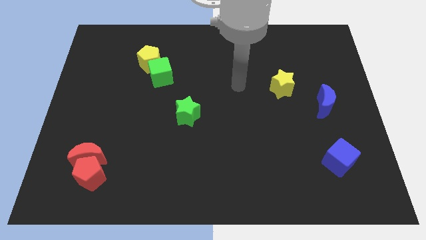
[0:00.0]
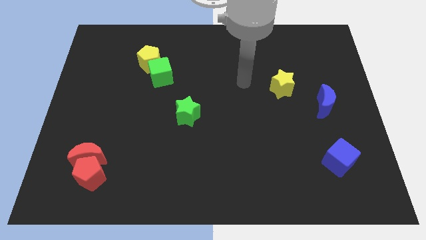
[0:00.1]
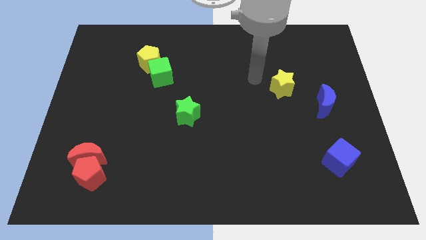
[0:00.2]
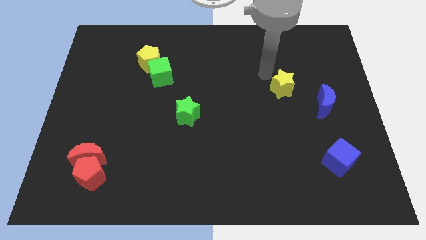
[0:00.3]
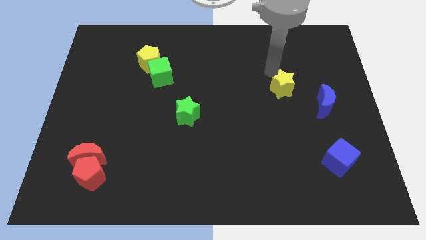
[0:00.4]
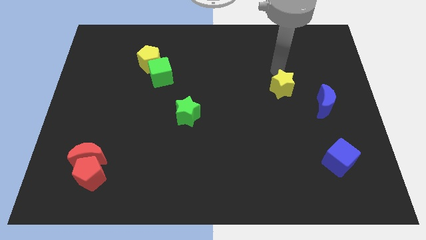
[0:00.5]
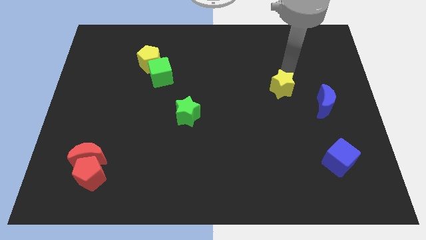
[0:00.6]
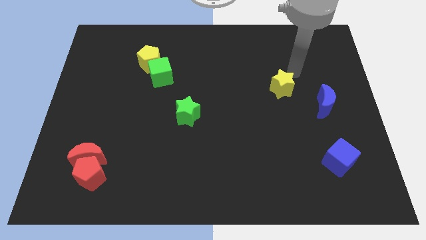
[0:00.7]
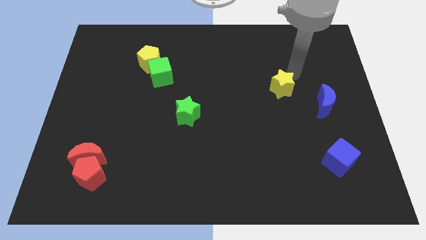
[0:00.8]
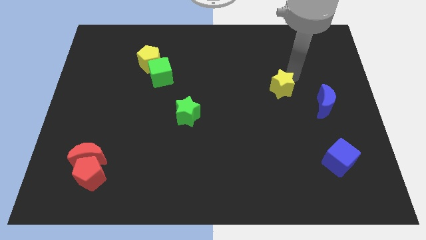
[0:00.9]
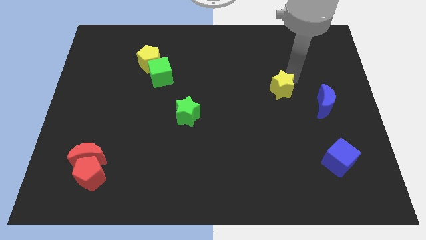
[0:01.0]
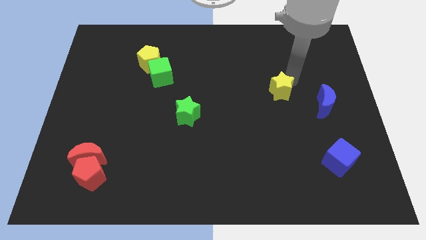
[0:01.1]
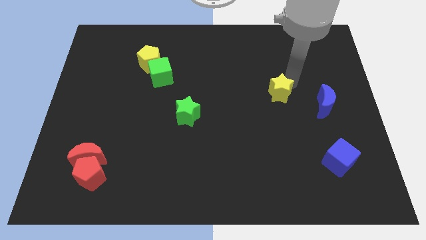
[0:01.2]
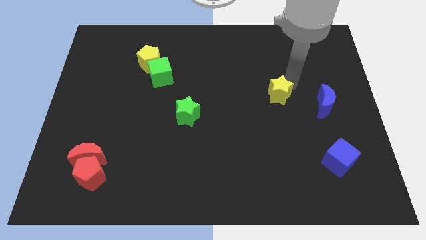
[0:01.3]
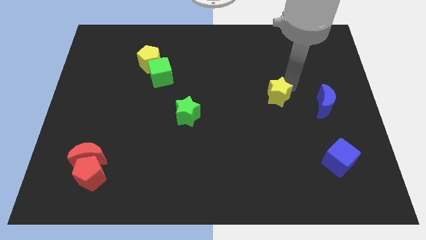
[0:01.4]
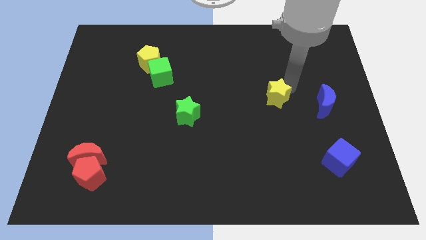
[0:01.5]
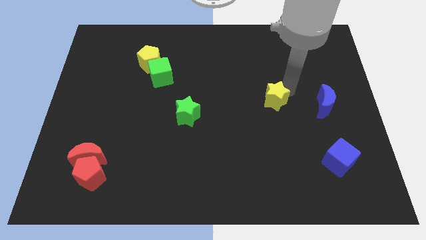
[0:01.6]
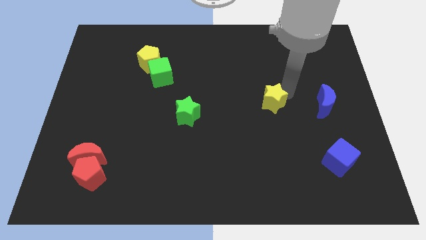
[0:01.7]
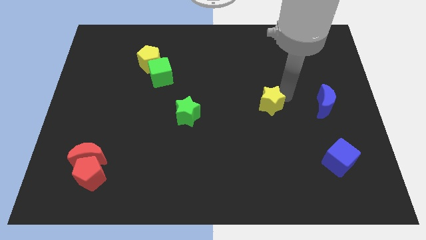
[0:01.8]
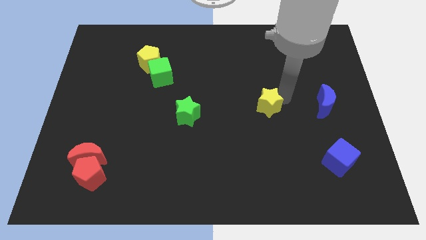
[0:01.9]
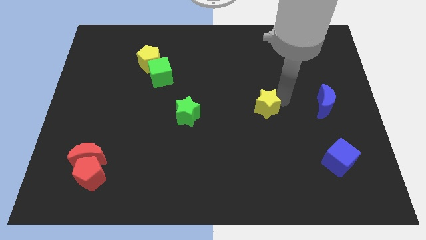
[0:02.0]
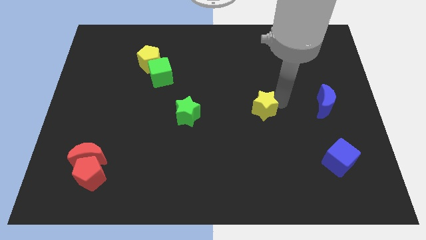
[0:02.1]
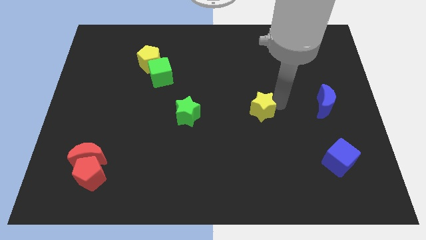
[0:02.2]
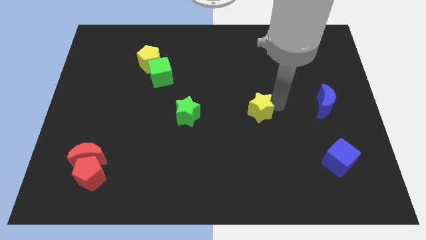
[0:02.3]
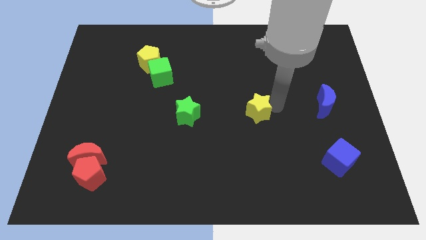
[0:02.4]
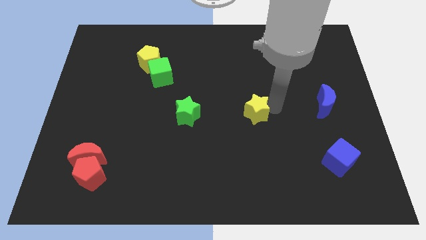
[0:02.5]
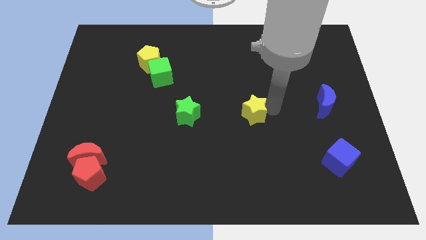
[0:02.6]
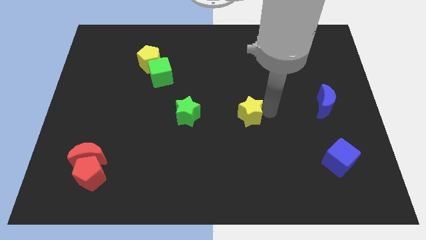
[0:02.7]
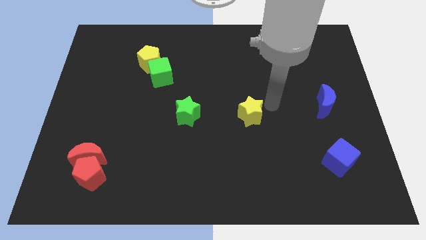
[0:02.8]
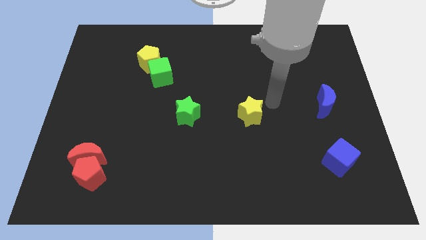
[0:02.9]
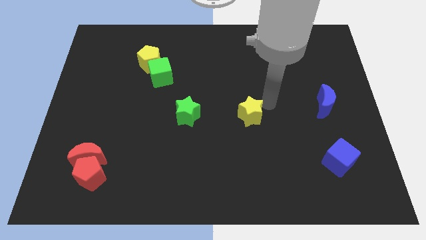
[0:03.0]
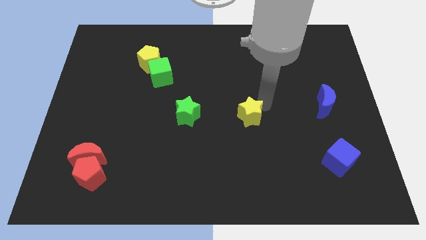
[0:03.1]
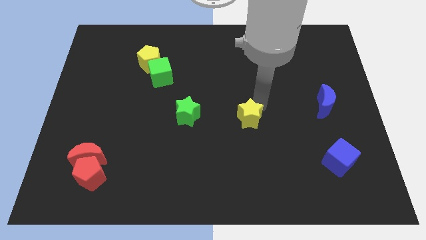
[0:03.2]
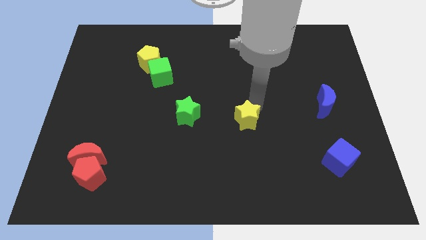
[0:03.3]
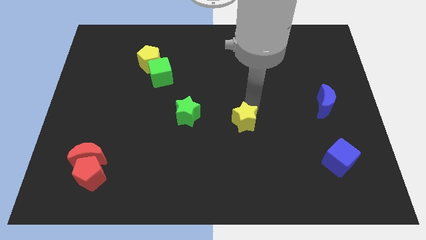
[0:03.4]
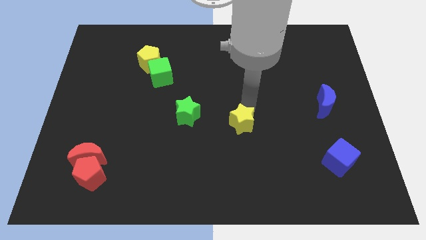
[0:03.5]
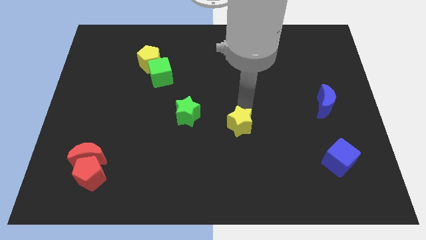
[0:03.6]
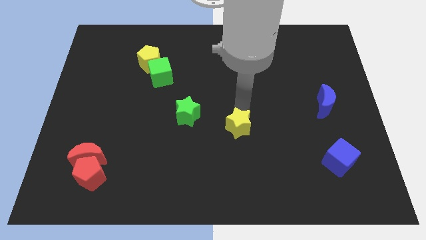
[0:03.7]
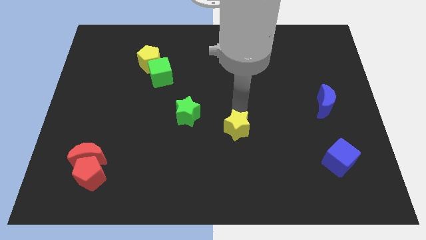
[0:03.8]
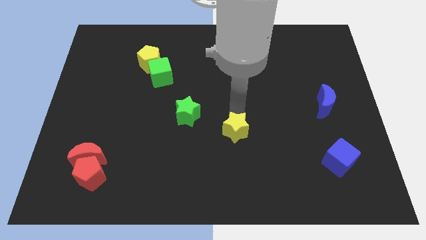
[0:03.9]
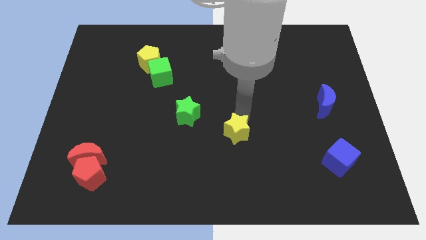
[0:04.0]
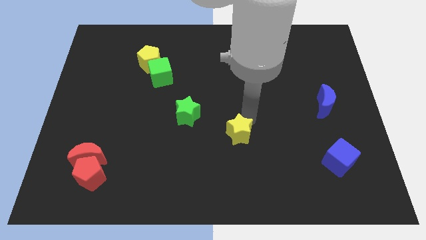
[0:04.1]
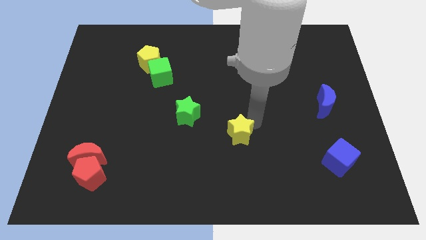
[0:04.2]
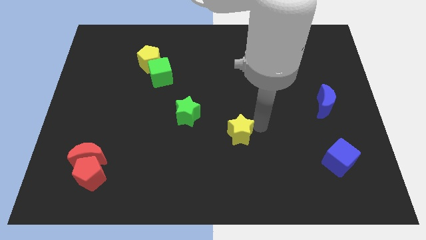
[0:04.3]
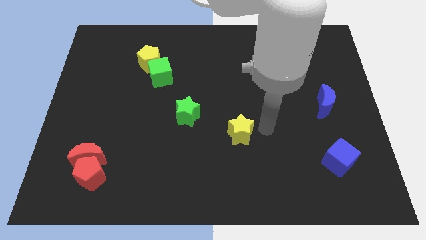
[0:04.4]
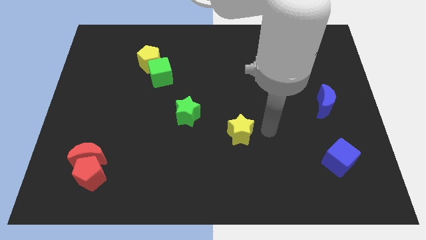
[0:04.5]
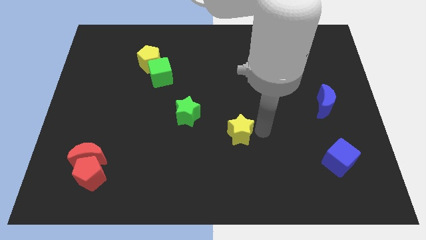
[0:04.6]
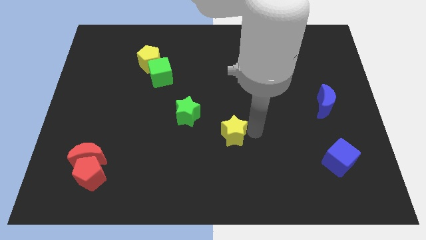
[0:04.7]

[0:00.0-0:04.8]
push the yellow star to the bottom right of the green star

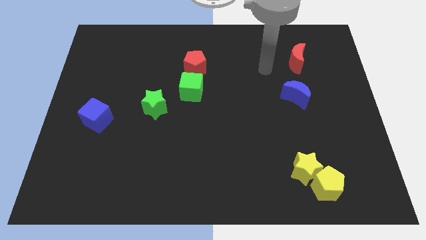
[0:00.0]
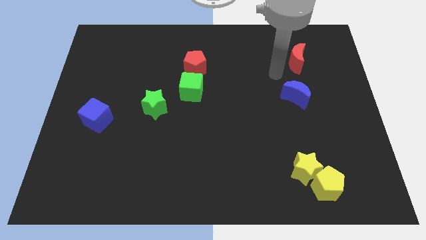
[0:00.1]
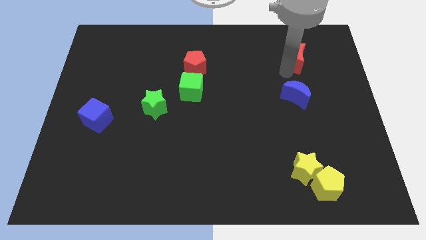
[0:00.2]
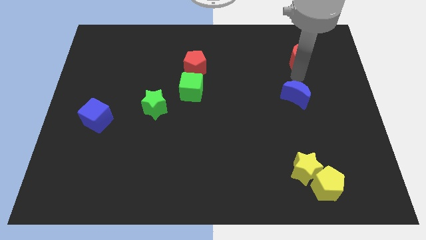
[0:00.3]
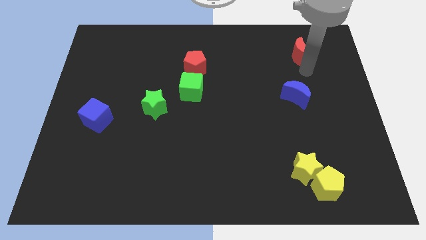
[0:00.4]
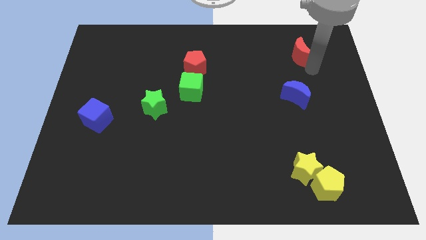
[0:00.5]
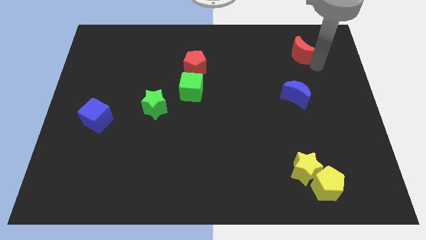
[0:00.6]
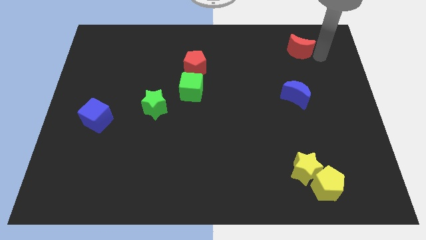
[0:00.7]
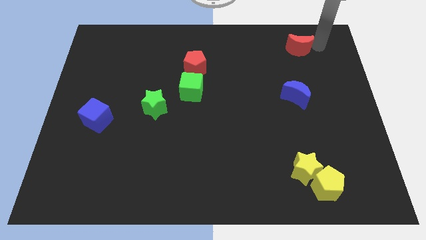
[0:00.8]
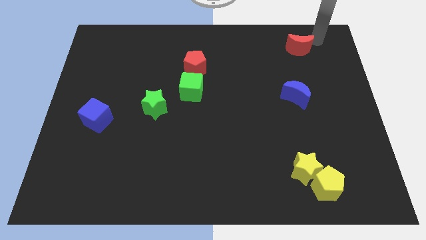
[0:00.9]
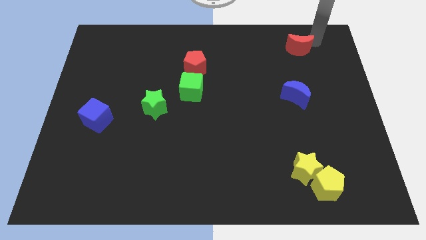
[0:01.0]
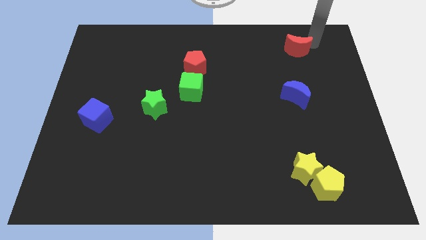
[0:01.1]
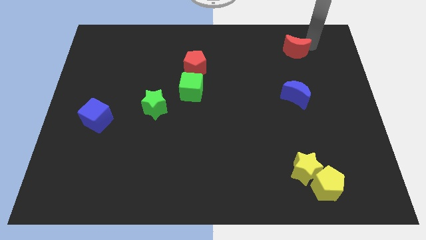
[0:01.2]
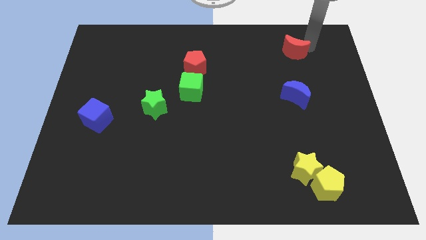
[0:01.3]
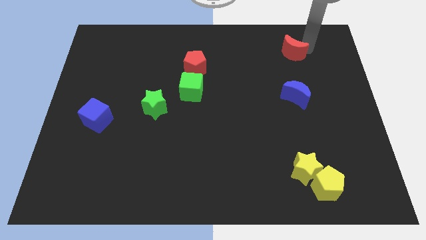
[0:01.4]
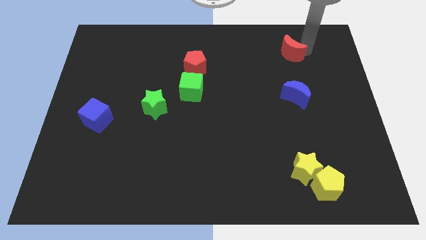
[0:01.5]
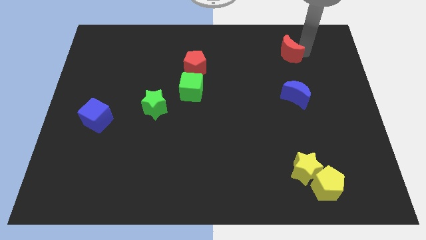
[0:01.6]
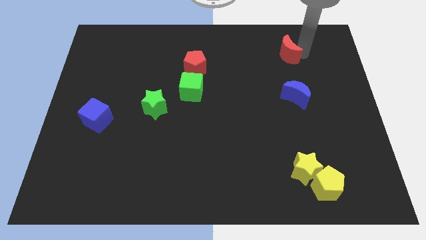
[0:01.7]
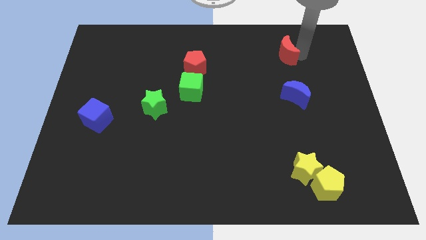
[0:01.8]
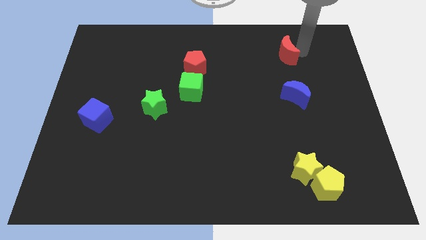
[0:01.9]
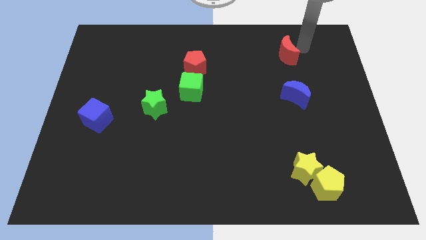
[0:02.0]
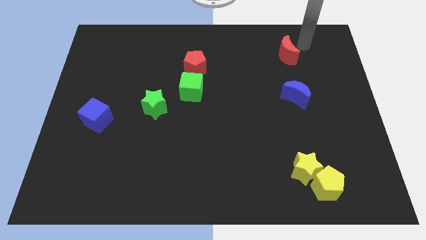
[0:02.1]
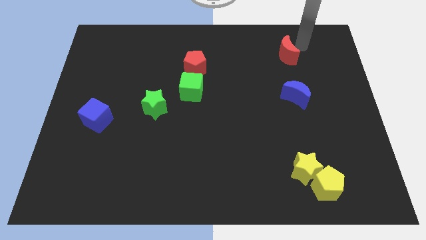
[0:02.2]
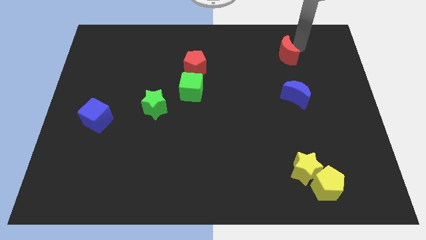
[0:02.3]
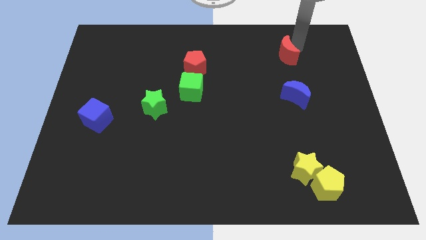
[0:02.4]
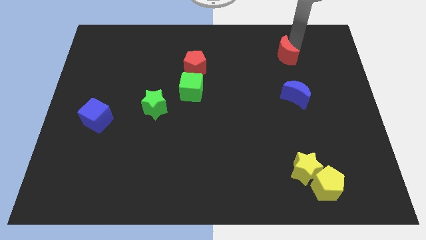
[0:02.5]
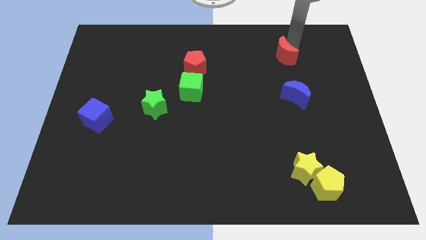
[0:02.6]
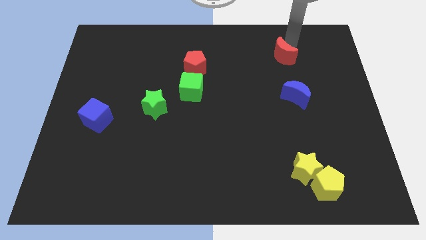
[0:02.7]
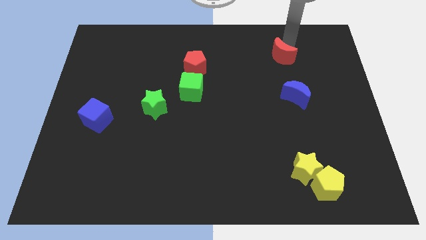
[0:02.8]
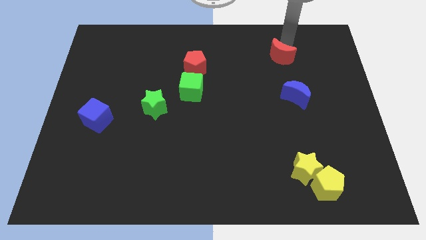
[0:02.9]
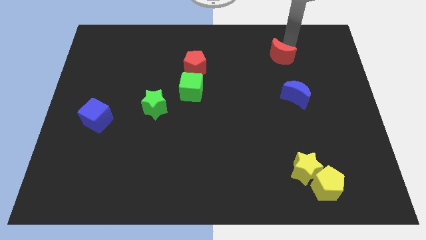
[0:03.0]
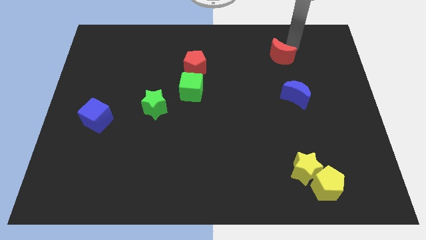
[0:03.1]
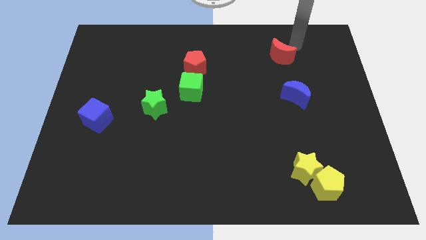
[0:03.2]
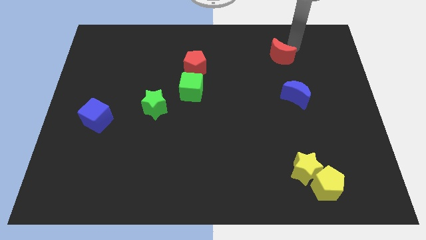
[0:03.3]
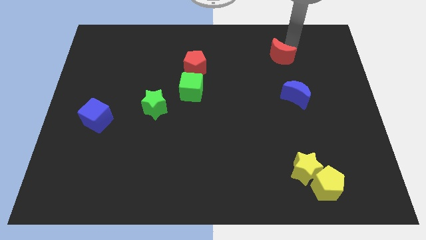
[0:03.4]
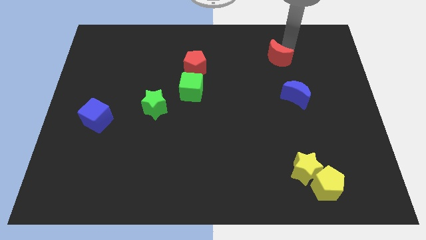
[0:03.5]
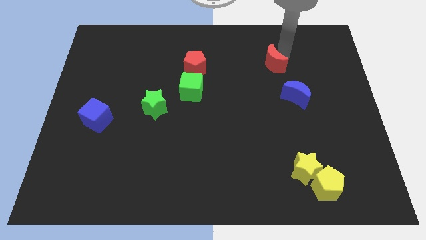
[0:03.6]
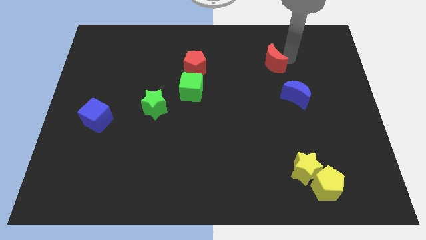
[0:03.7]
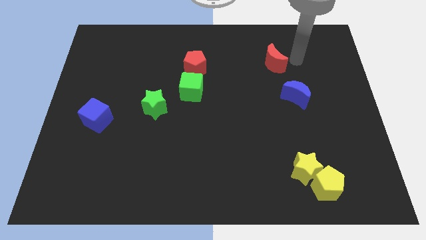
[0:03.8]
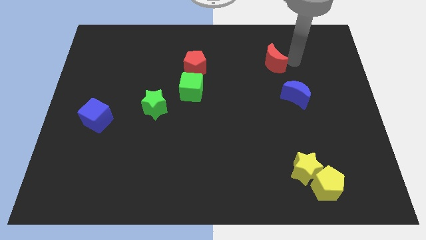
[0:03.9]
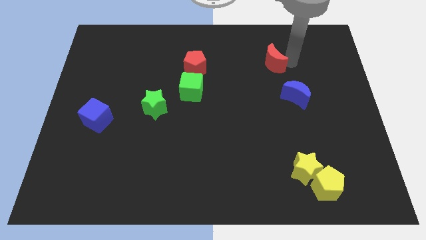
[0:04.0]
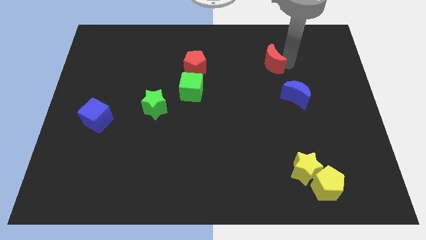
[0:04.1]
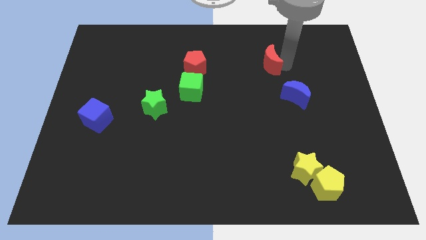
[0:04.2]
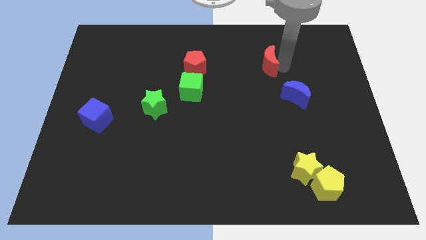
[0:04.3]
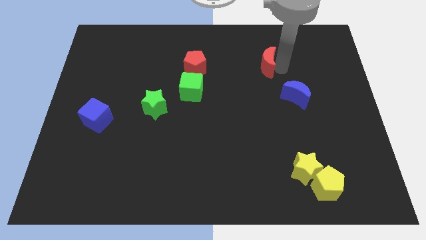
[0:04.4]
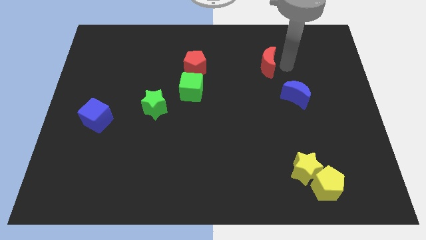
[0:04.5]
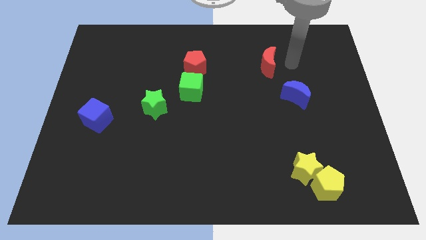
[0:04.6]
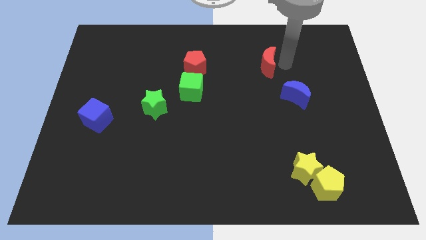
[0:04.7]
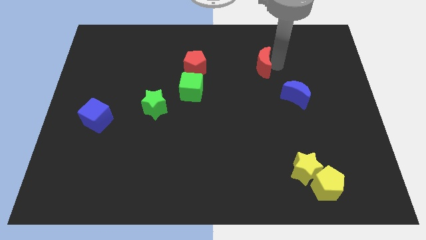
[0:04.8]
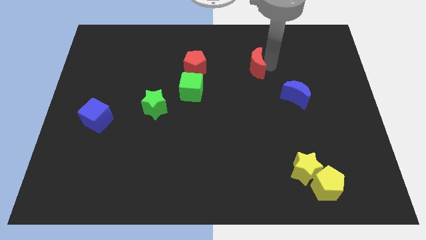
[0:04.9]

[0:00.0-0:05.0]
slide the red moon just right of the red pentagon
